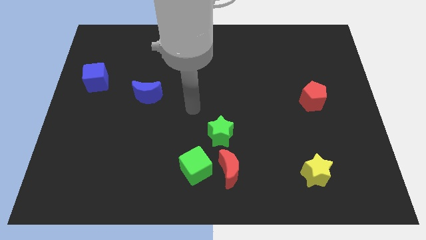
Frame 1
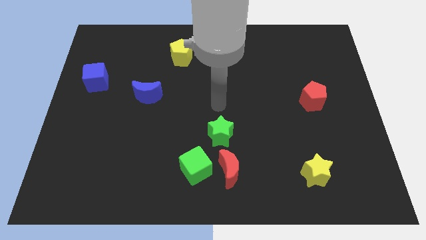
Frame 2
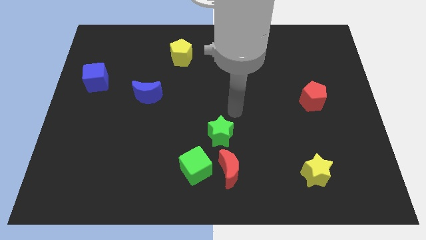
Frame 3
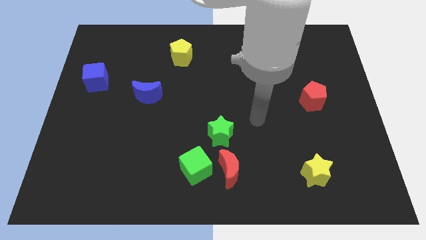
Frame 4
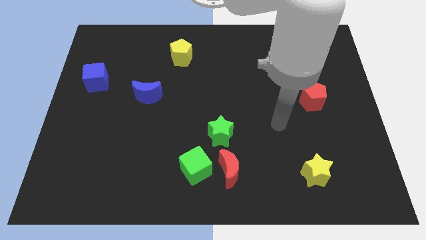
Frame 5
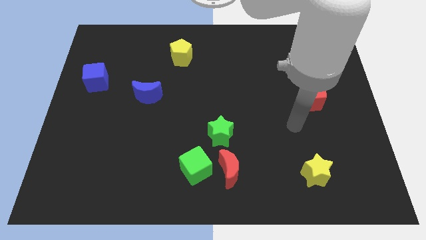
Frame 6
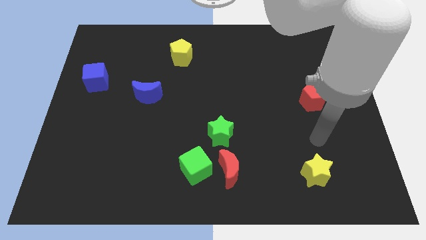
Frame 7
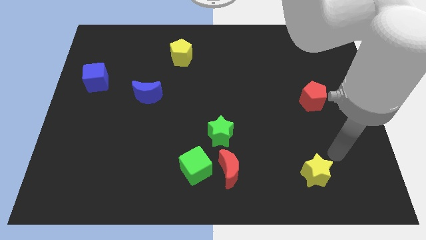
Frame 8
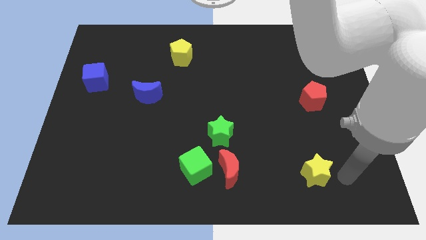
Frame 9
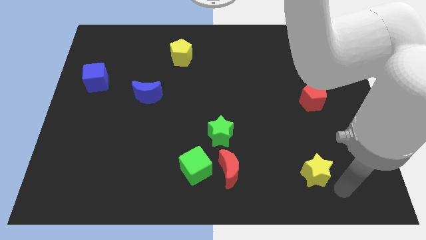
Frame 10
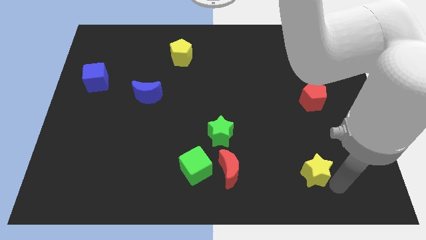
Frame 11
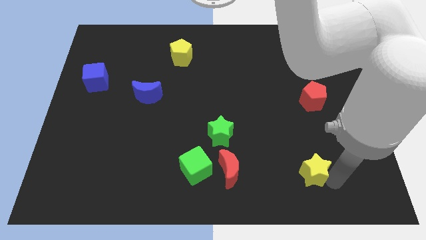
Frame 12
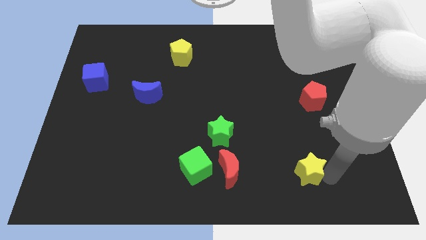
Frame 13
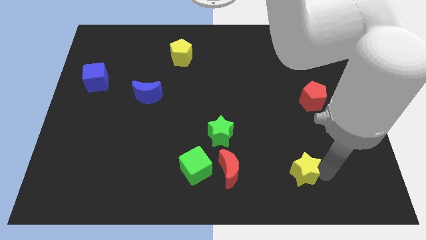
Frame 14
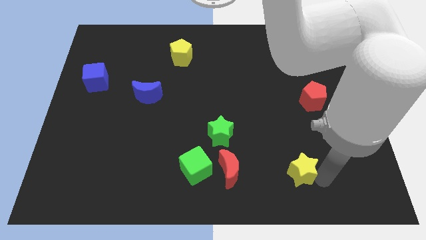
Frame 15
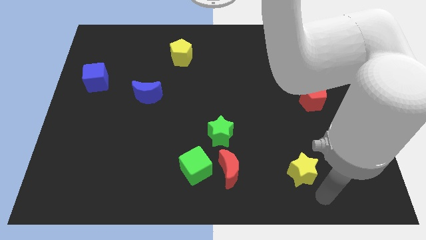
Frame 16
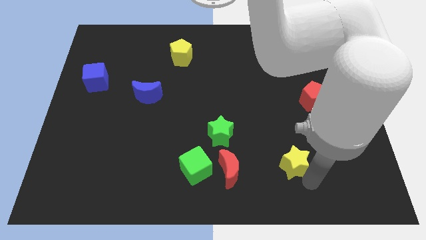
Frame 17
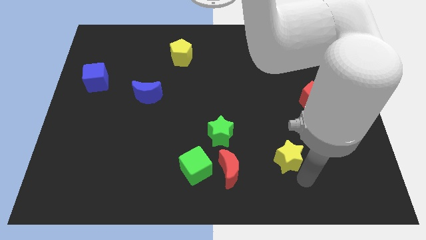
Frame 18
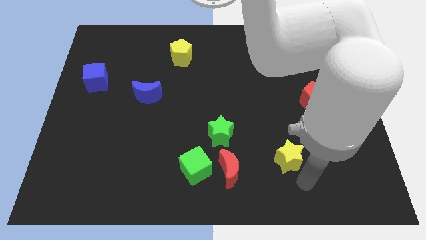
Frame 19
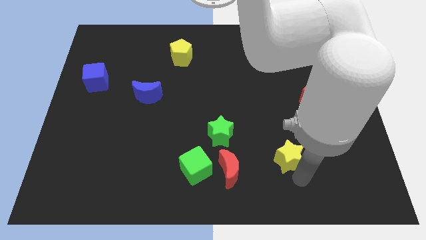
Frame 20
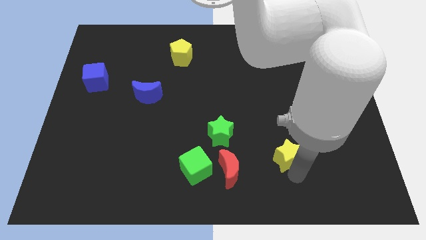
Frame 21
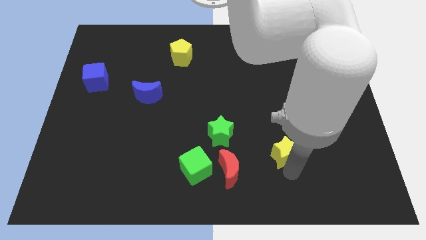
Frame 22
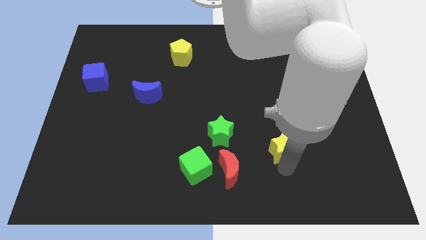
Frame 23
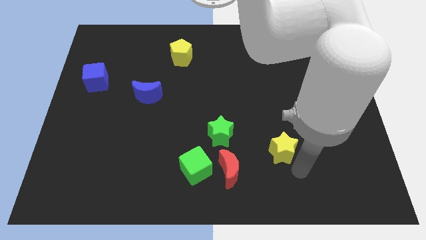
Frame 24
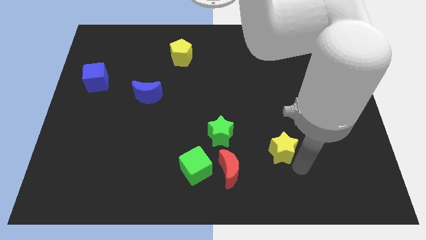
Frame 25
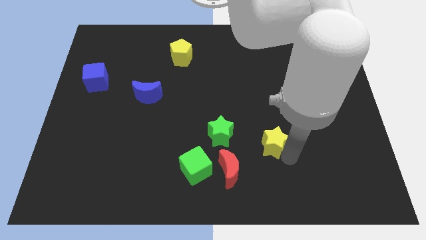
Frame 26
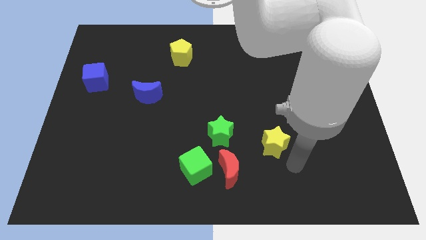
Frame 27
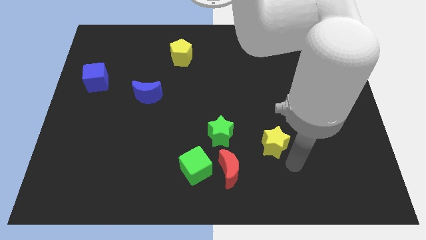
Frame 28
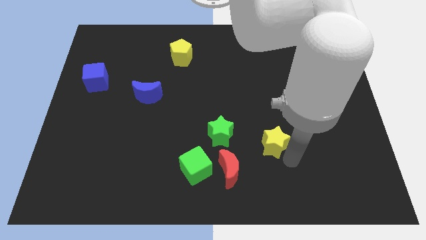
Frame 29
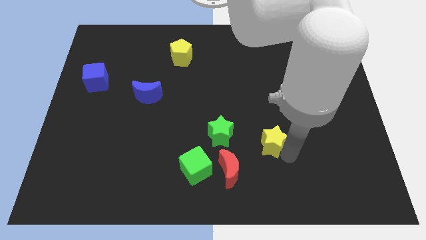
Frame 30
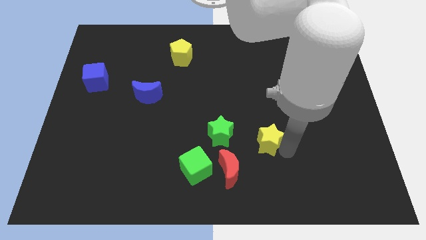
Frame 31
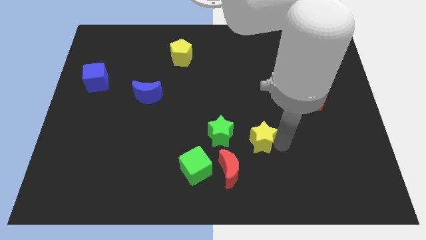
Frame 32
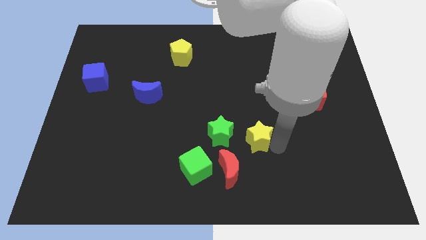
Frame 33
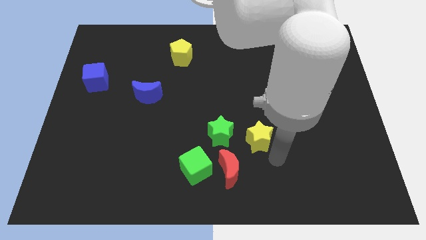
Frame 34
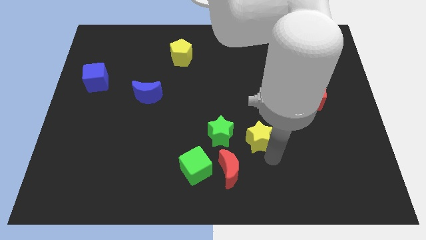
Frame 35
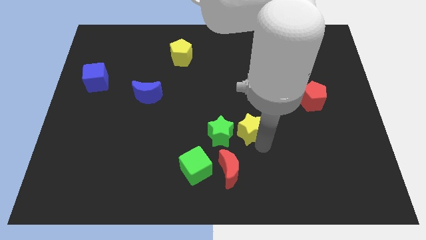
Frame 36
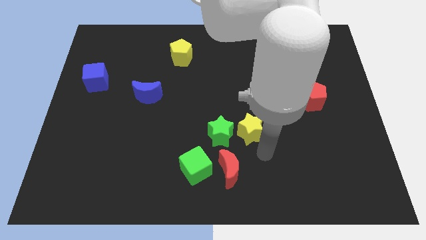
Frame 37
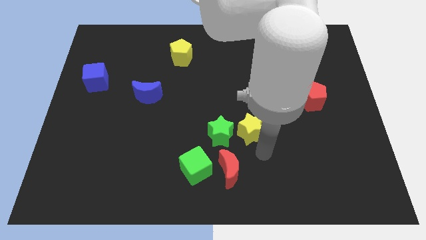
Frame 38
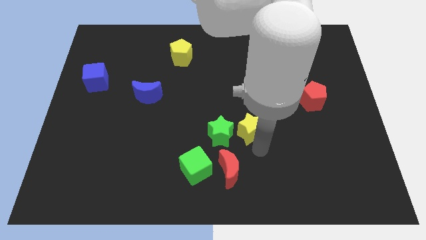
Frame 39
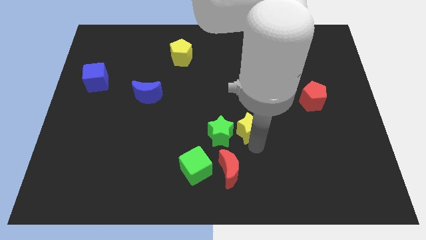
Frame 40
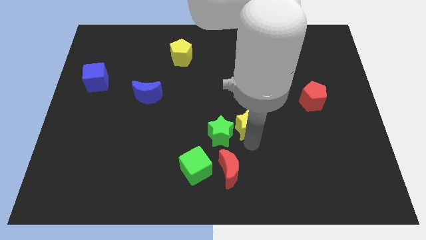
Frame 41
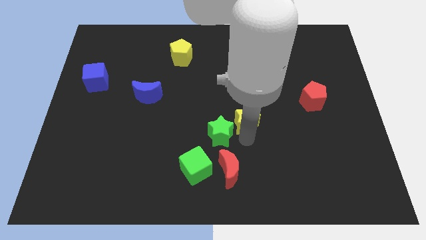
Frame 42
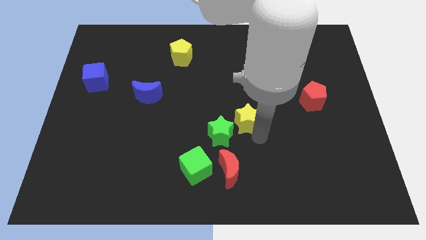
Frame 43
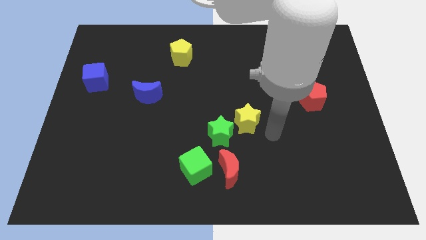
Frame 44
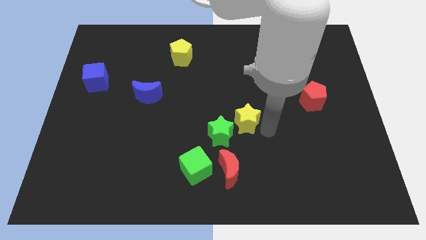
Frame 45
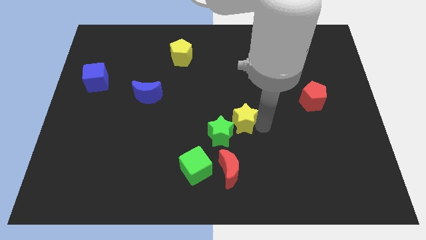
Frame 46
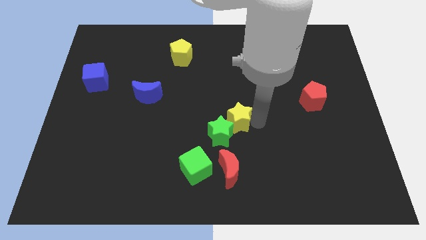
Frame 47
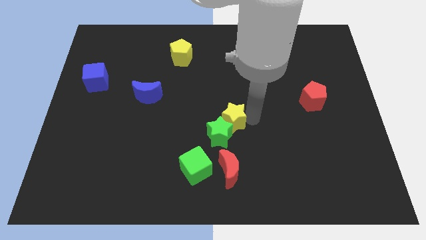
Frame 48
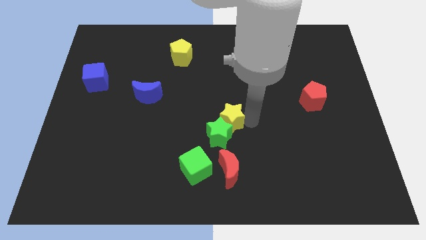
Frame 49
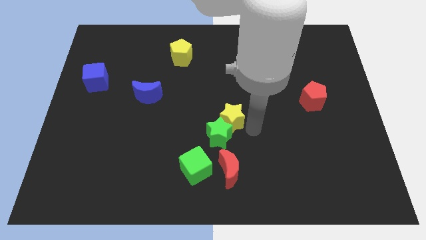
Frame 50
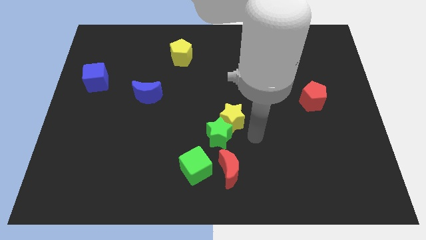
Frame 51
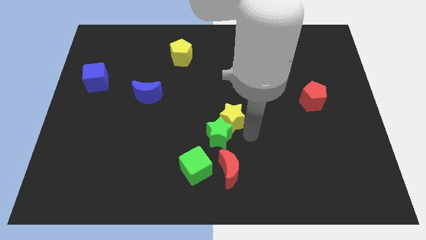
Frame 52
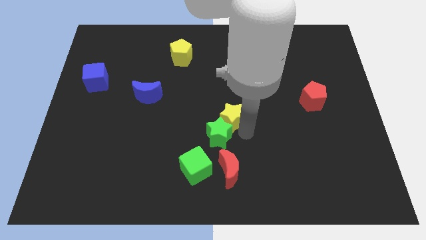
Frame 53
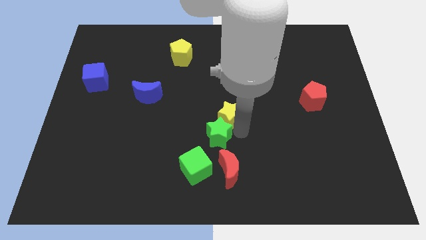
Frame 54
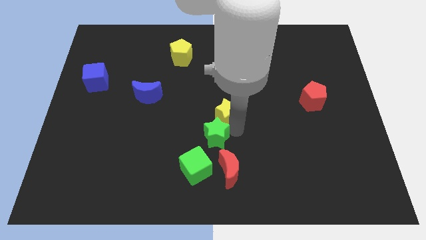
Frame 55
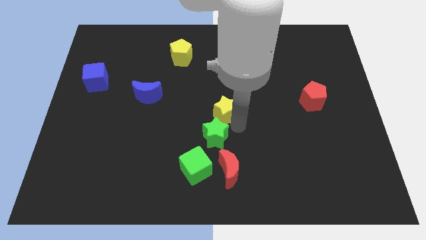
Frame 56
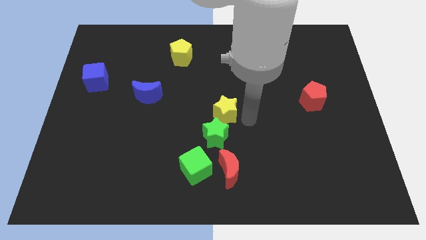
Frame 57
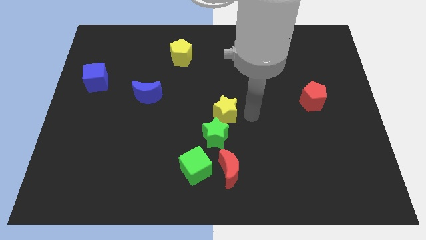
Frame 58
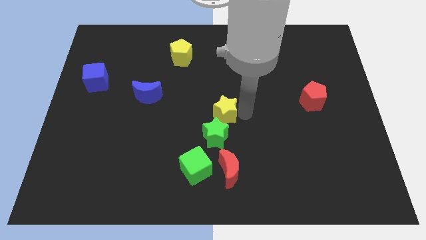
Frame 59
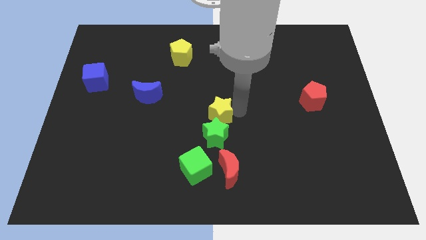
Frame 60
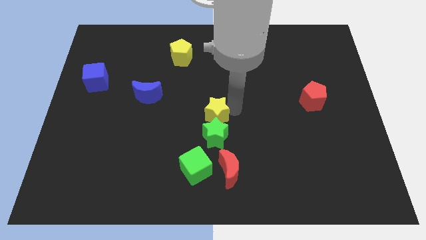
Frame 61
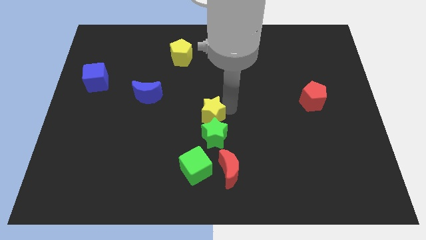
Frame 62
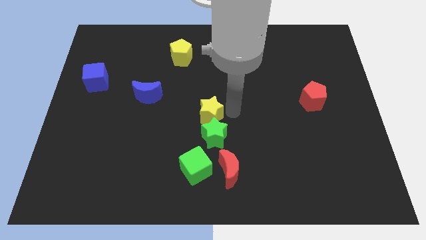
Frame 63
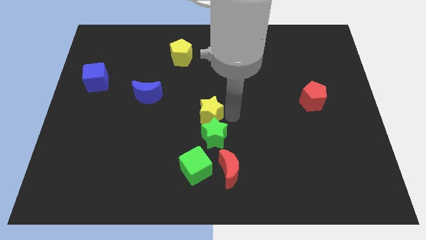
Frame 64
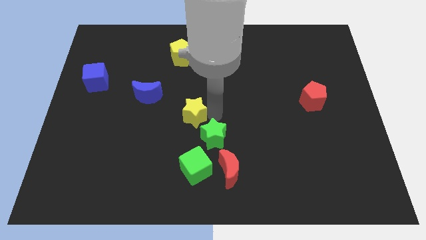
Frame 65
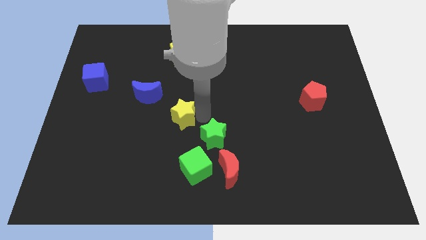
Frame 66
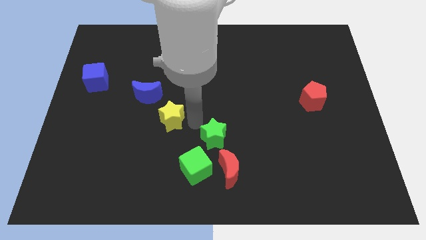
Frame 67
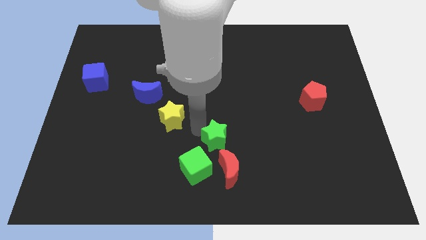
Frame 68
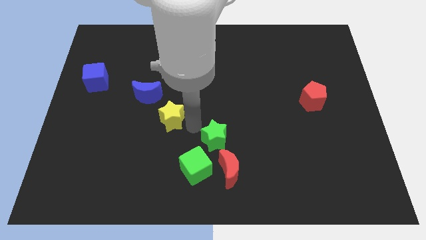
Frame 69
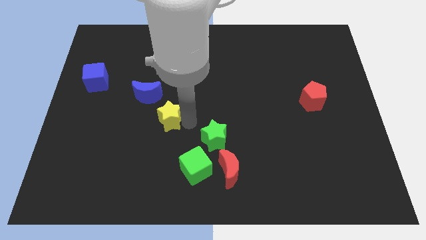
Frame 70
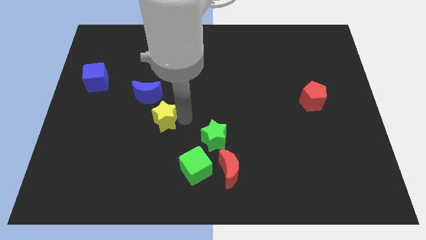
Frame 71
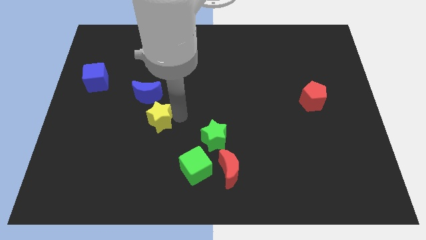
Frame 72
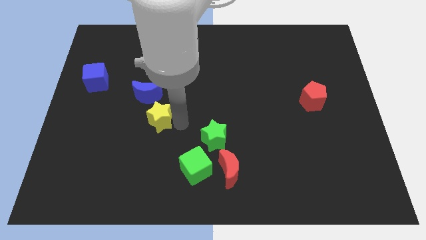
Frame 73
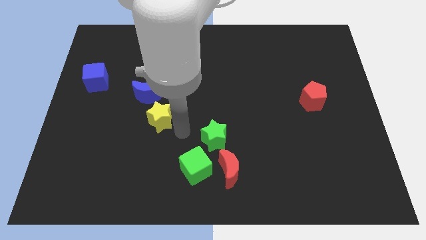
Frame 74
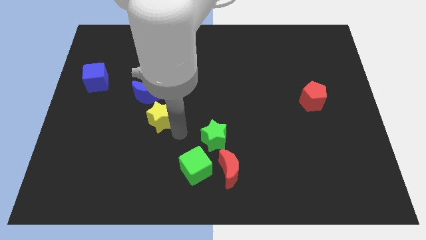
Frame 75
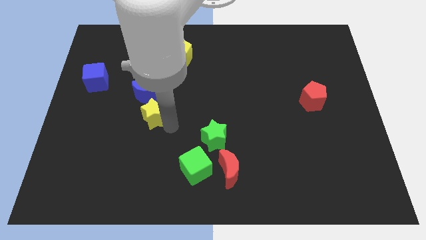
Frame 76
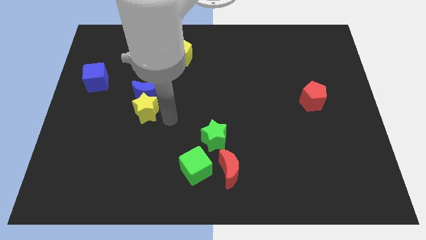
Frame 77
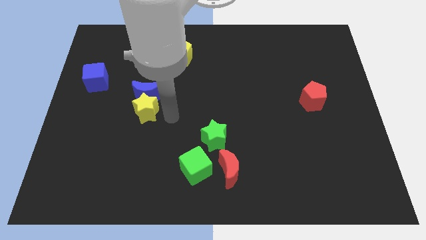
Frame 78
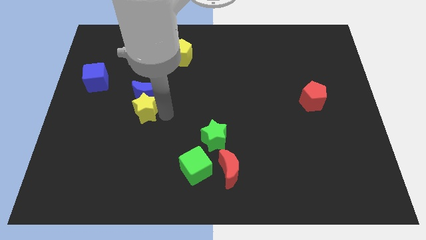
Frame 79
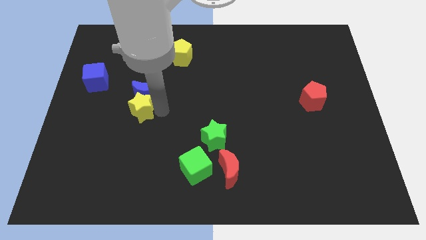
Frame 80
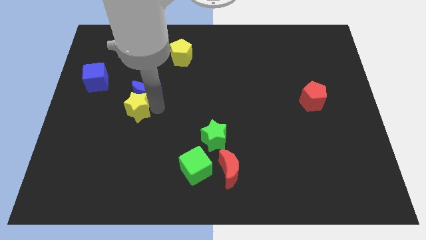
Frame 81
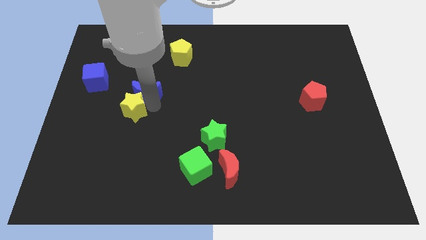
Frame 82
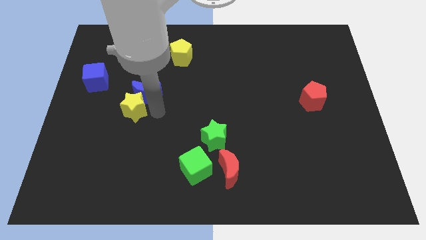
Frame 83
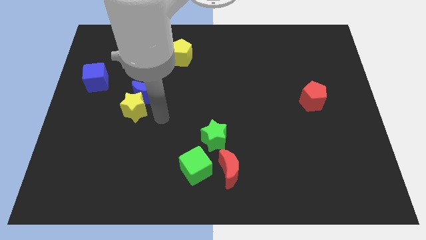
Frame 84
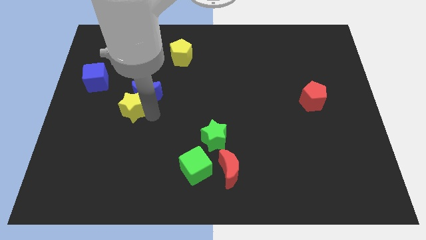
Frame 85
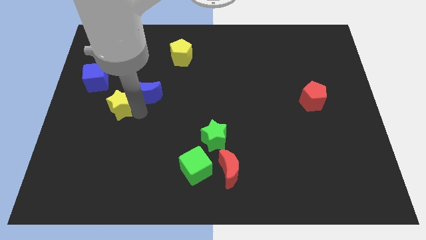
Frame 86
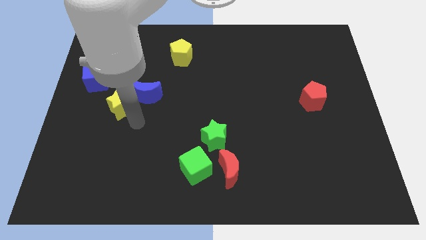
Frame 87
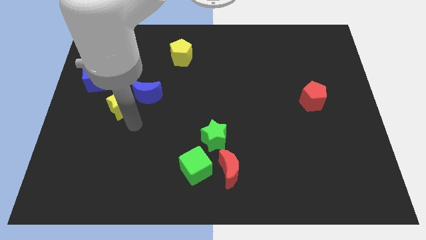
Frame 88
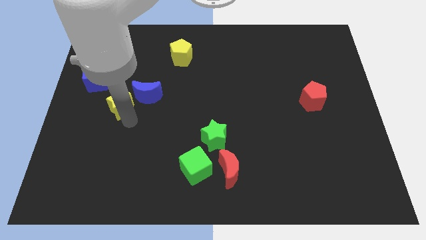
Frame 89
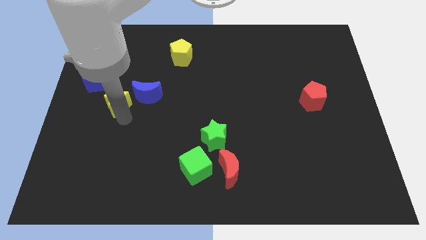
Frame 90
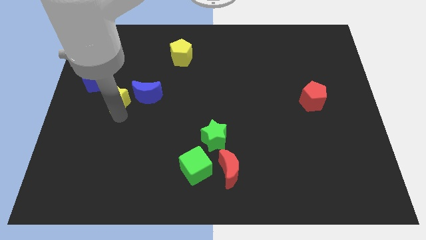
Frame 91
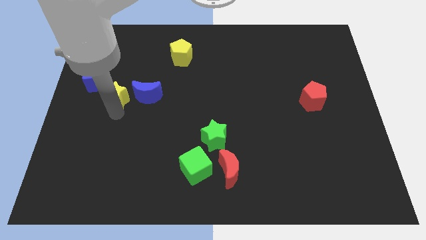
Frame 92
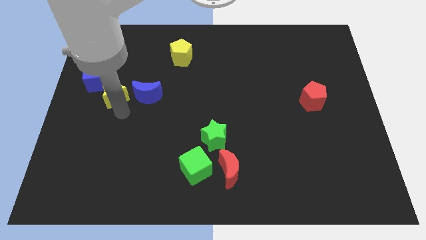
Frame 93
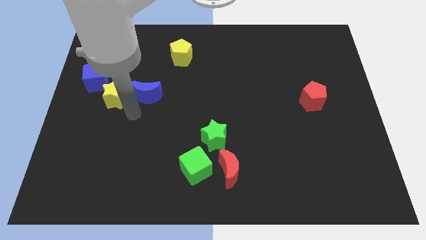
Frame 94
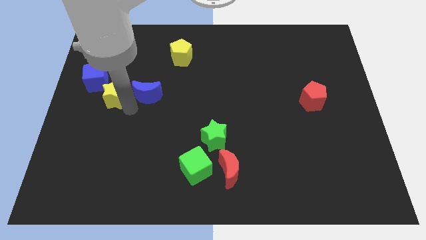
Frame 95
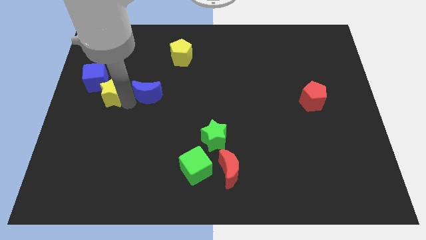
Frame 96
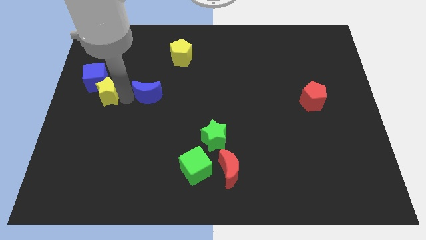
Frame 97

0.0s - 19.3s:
slide the yellow star next to the blue cube
